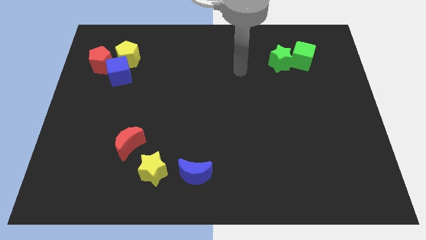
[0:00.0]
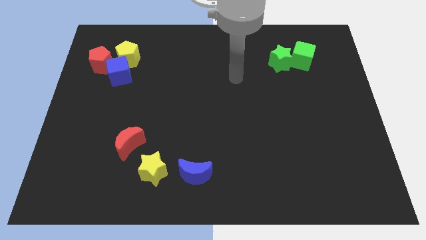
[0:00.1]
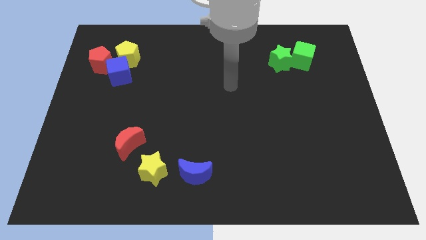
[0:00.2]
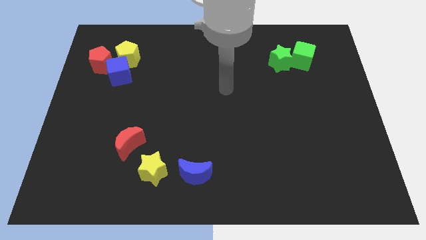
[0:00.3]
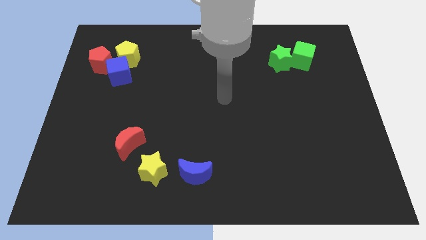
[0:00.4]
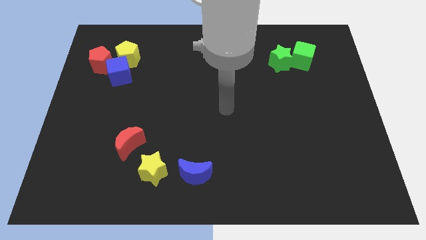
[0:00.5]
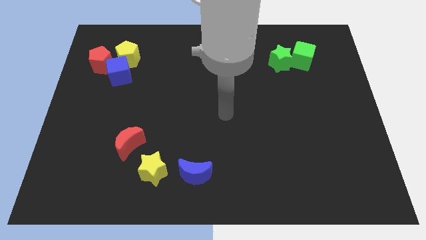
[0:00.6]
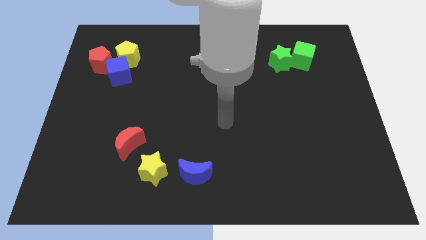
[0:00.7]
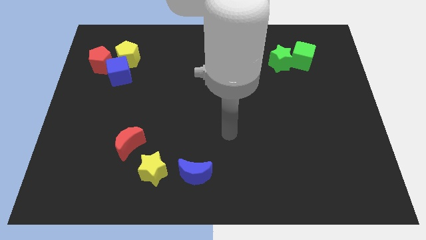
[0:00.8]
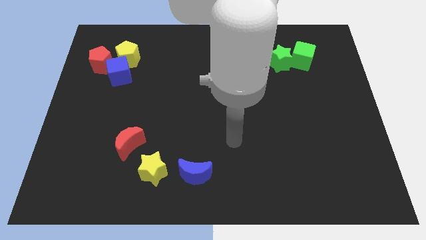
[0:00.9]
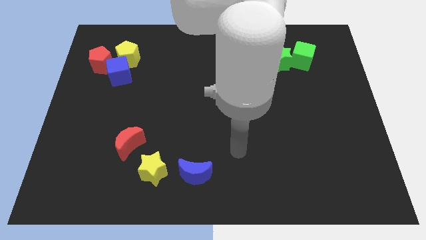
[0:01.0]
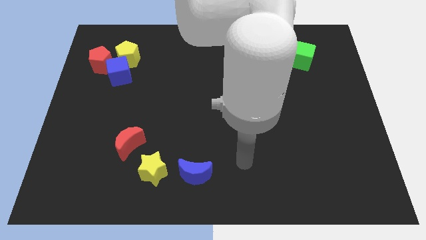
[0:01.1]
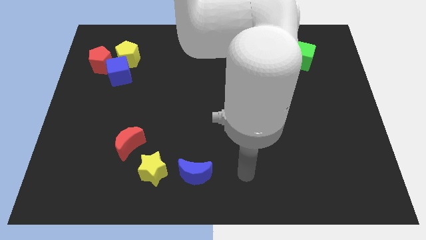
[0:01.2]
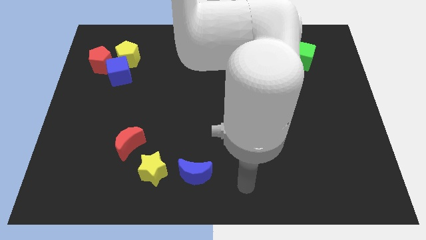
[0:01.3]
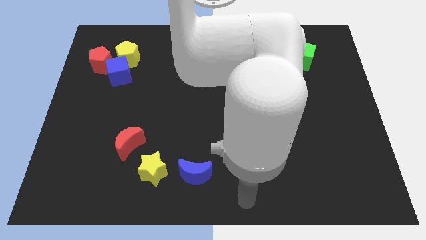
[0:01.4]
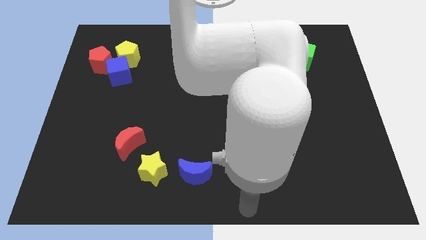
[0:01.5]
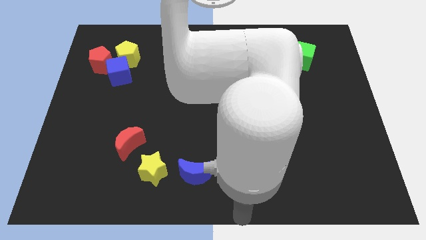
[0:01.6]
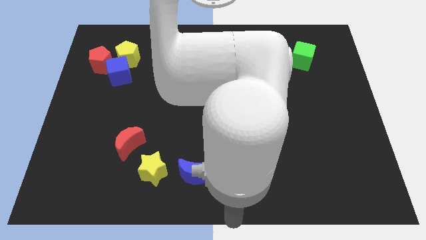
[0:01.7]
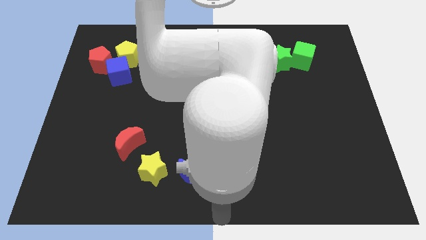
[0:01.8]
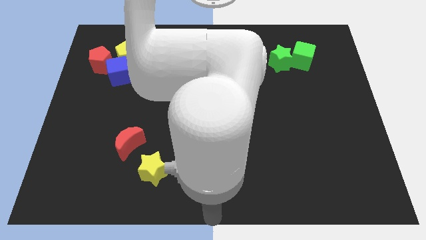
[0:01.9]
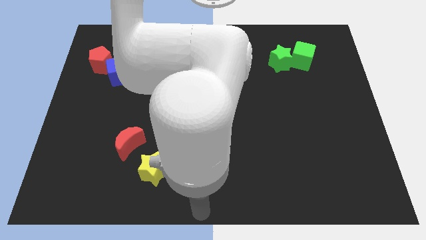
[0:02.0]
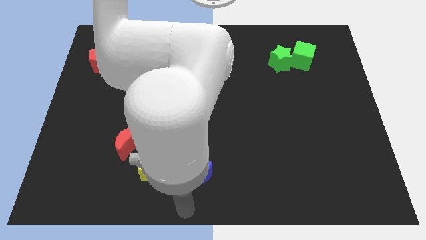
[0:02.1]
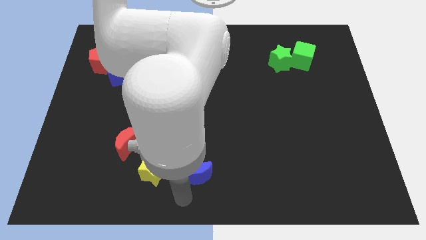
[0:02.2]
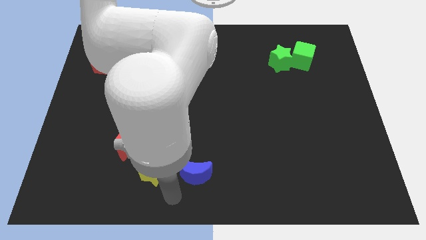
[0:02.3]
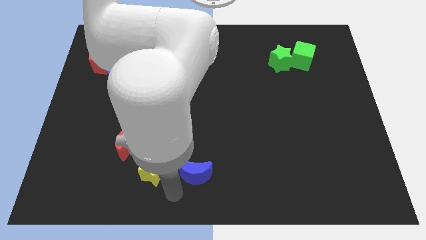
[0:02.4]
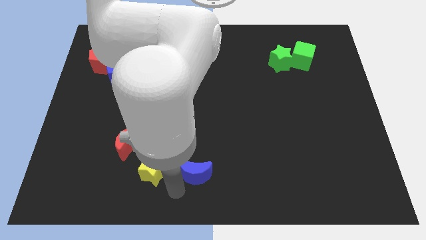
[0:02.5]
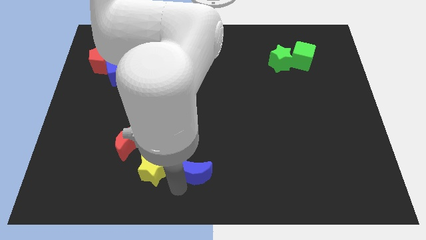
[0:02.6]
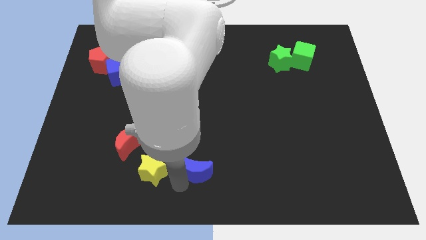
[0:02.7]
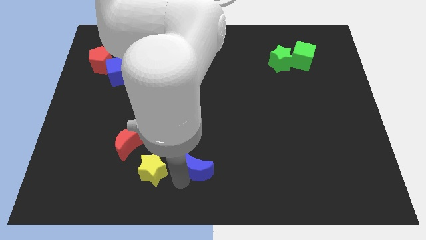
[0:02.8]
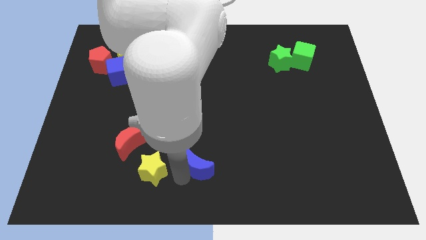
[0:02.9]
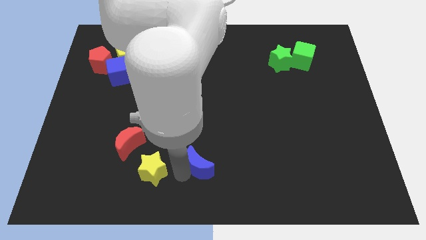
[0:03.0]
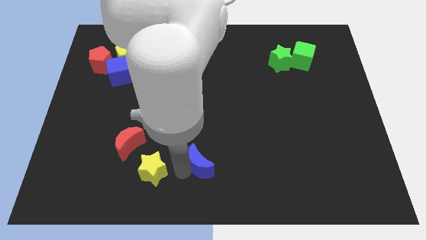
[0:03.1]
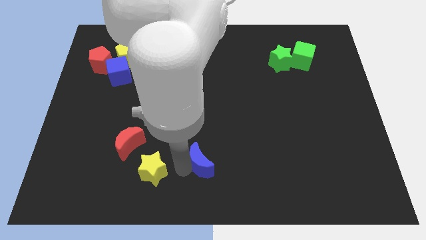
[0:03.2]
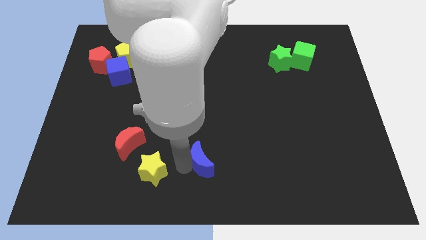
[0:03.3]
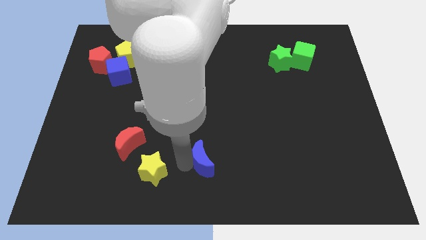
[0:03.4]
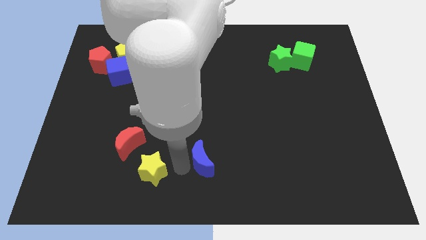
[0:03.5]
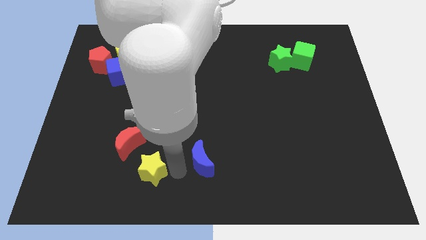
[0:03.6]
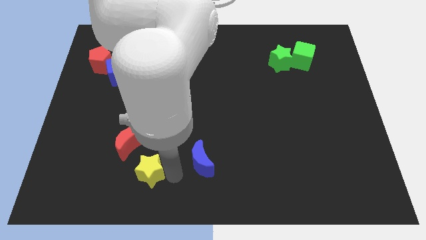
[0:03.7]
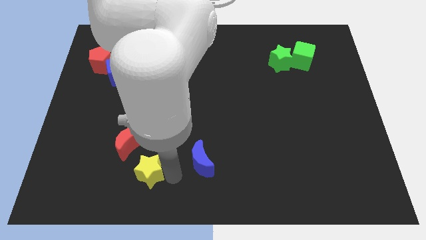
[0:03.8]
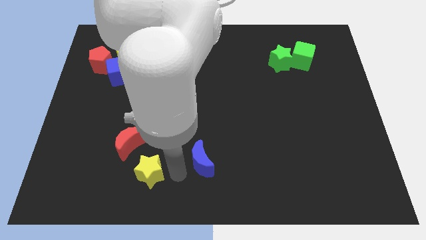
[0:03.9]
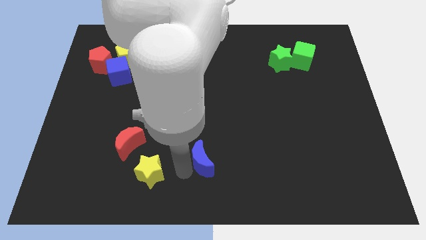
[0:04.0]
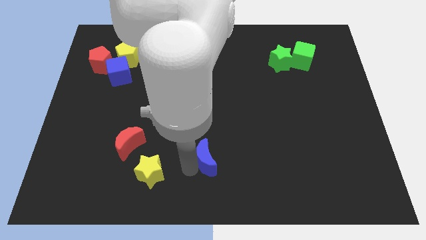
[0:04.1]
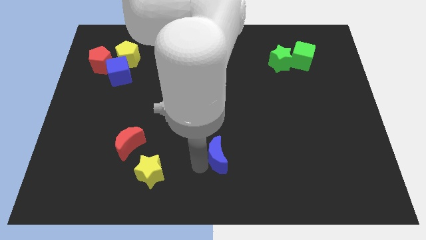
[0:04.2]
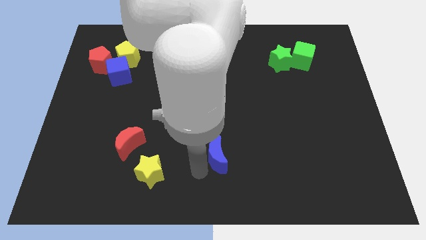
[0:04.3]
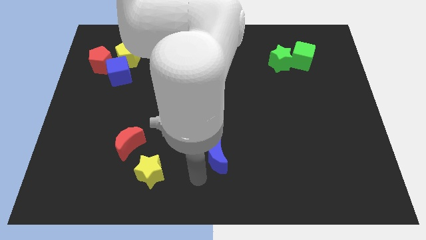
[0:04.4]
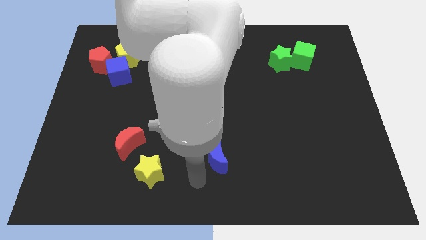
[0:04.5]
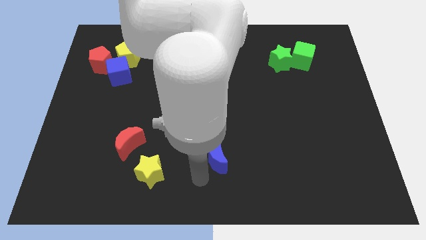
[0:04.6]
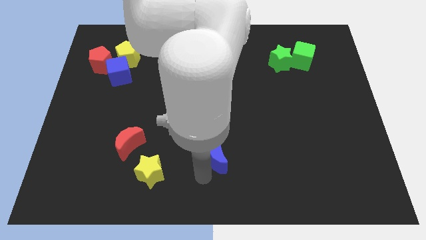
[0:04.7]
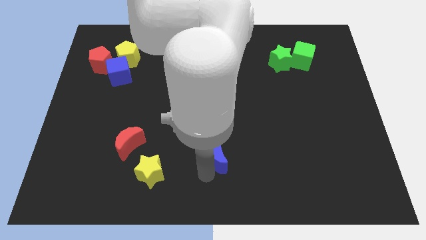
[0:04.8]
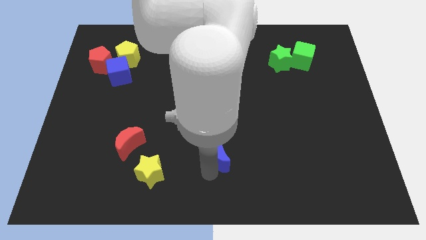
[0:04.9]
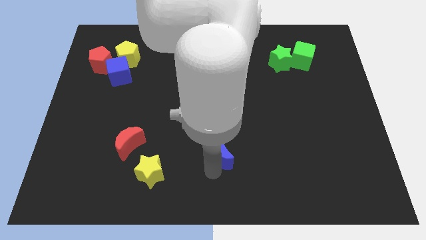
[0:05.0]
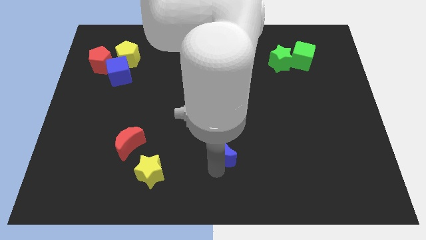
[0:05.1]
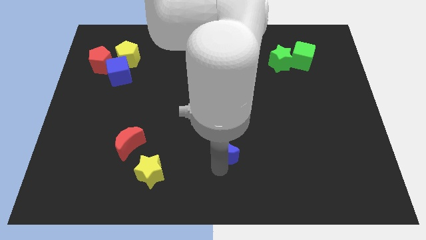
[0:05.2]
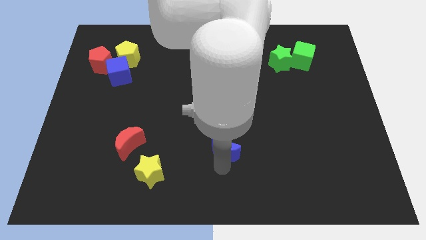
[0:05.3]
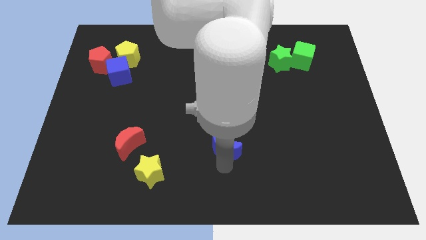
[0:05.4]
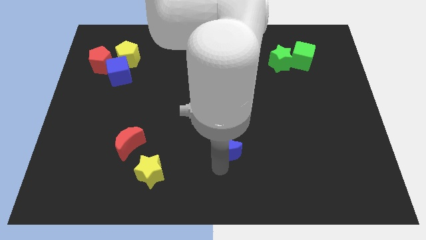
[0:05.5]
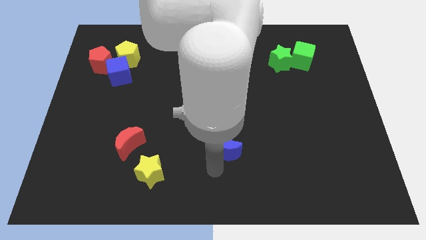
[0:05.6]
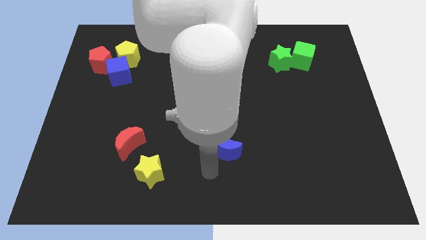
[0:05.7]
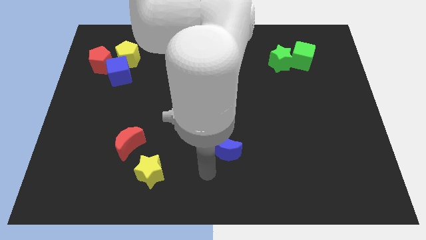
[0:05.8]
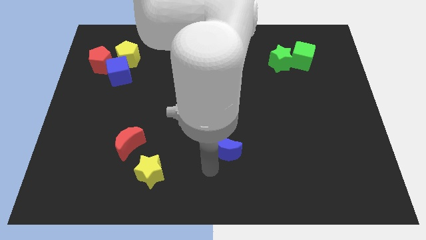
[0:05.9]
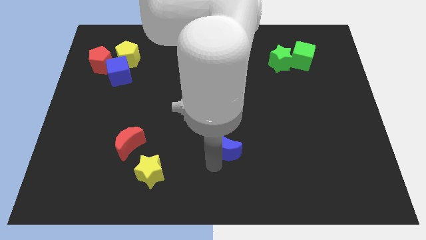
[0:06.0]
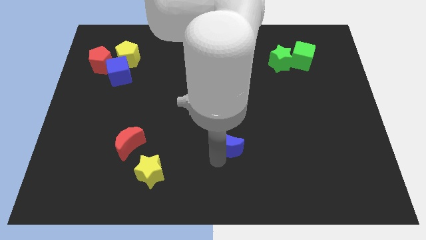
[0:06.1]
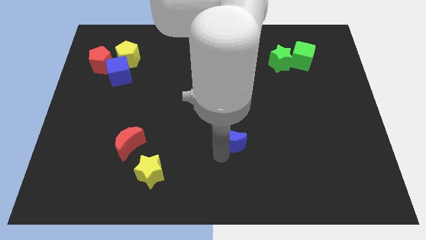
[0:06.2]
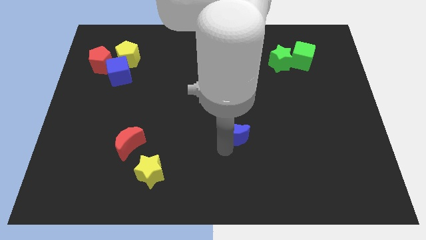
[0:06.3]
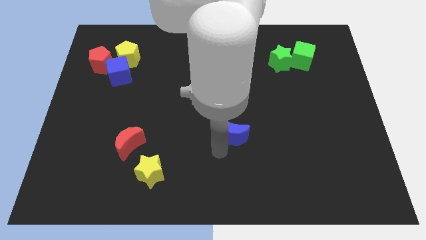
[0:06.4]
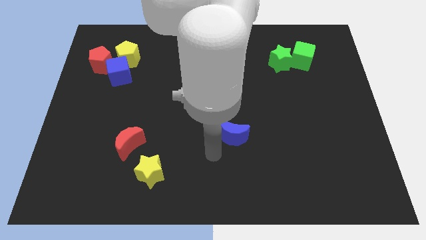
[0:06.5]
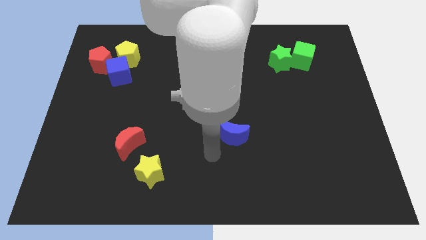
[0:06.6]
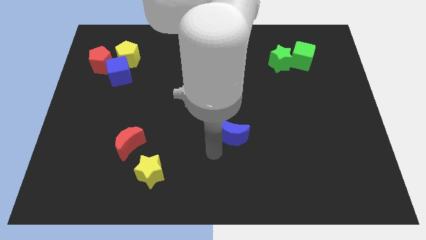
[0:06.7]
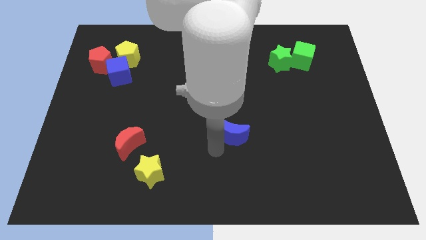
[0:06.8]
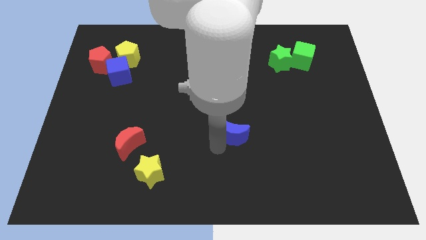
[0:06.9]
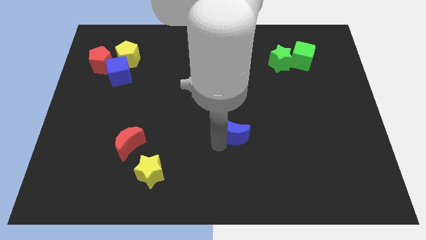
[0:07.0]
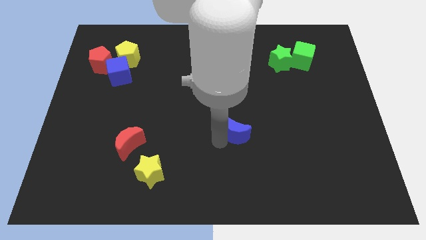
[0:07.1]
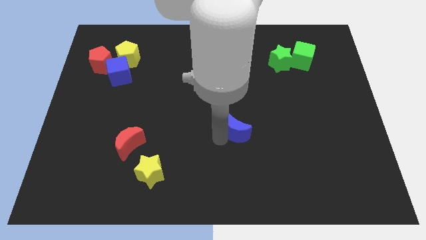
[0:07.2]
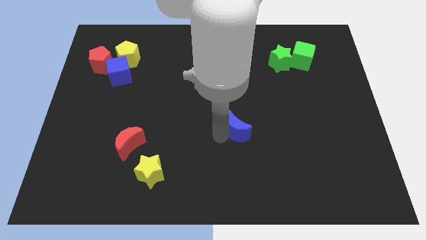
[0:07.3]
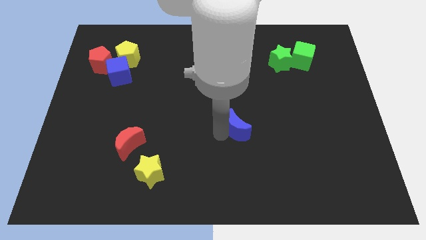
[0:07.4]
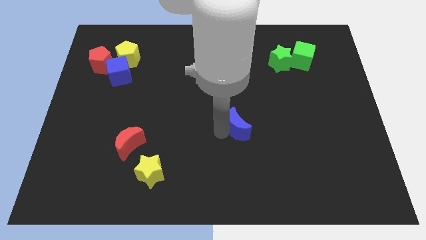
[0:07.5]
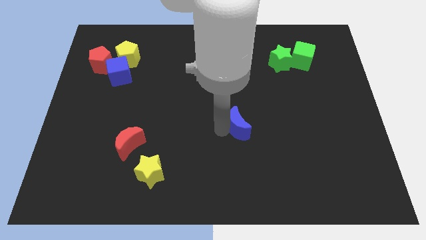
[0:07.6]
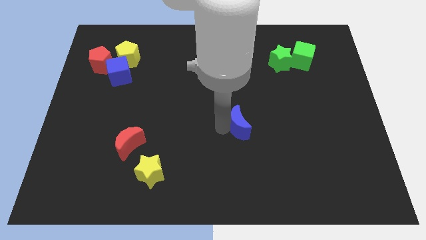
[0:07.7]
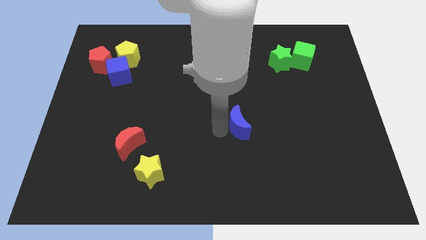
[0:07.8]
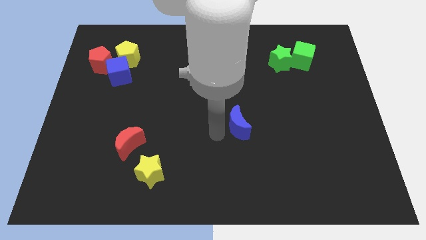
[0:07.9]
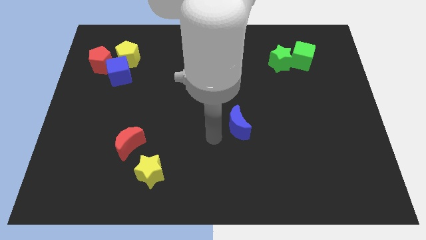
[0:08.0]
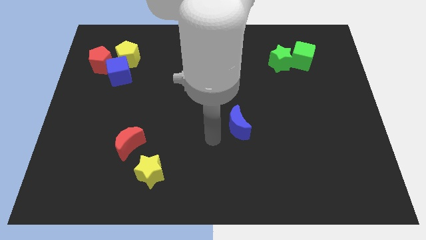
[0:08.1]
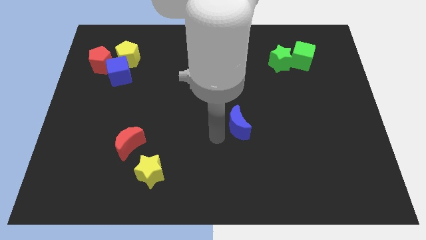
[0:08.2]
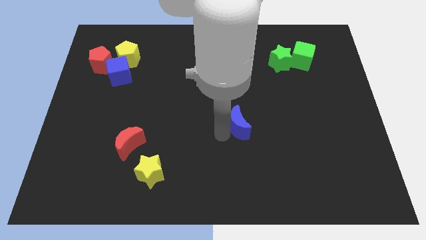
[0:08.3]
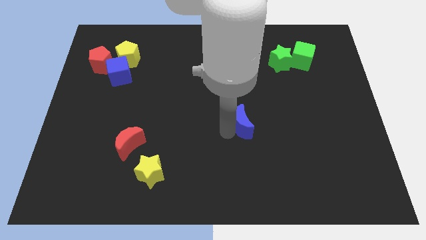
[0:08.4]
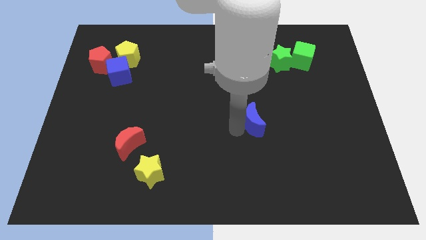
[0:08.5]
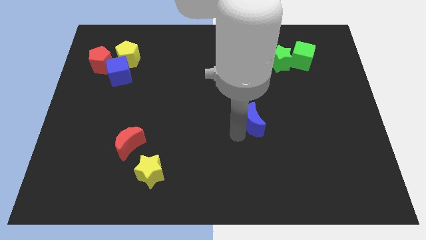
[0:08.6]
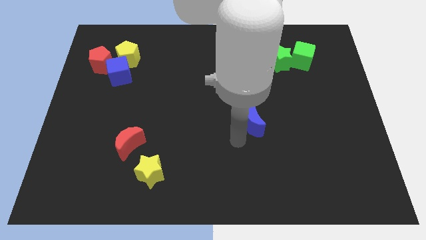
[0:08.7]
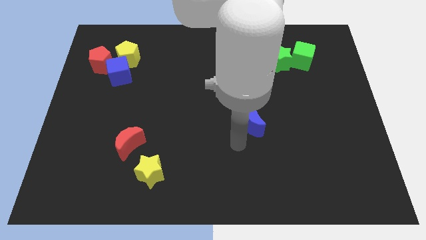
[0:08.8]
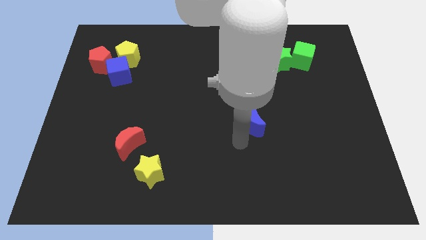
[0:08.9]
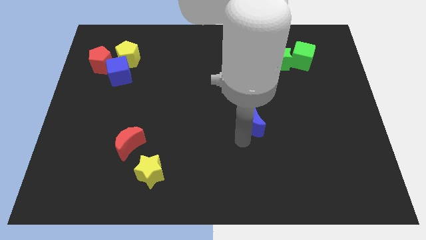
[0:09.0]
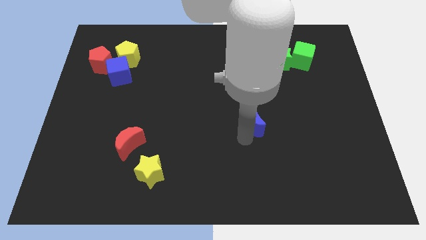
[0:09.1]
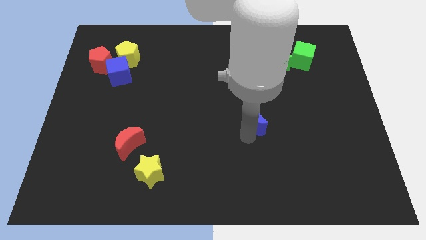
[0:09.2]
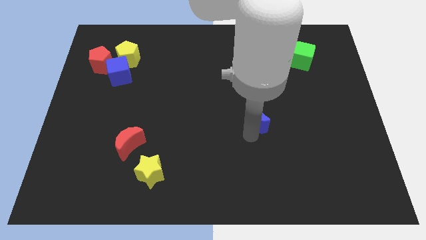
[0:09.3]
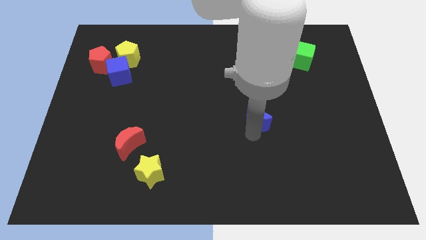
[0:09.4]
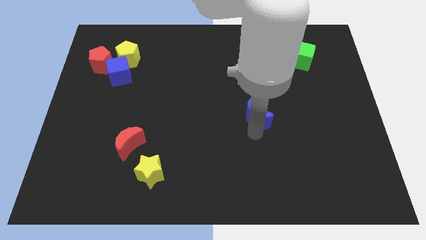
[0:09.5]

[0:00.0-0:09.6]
slide the blue moon upwards and to the right diagonally
